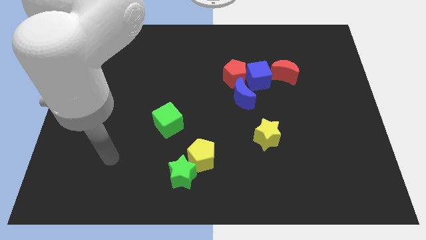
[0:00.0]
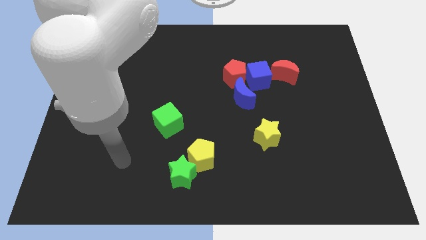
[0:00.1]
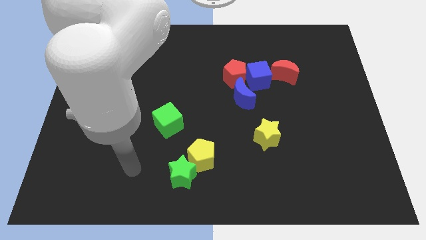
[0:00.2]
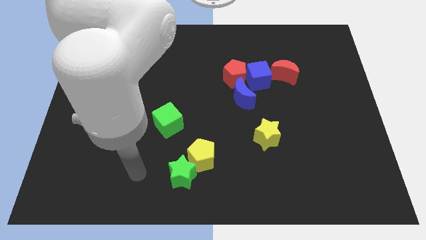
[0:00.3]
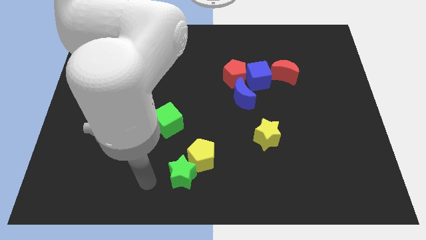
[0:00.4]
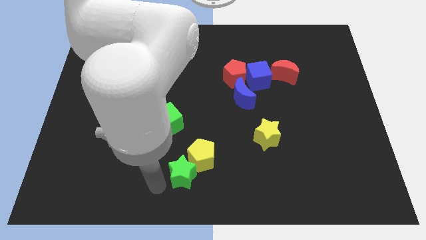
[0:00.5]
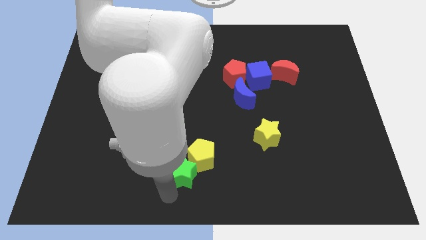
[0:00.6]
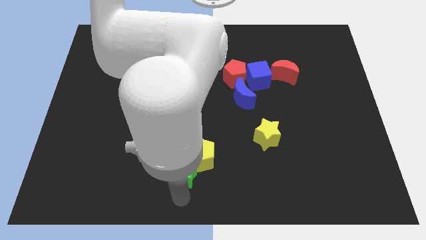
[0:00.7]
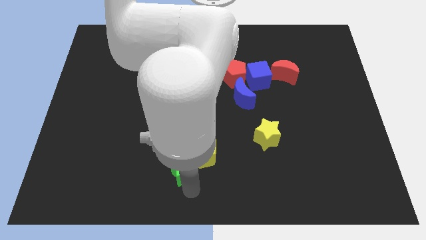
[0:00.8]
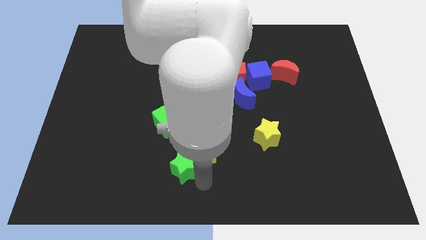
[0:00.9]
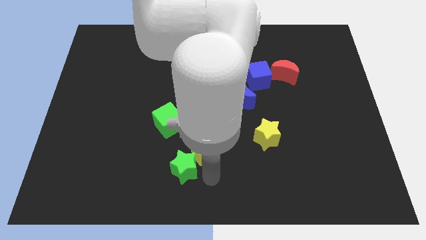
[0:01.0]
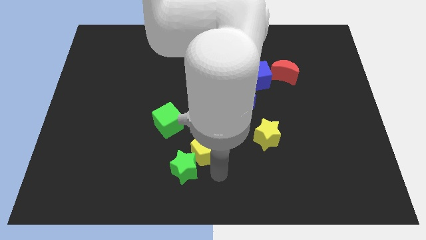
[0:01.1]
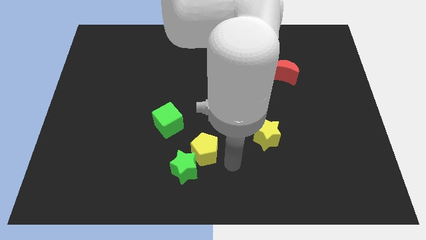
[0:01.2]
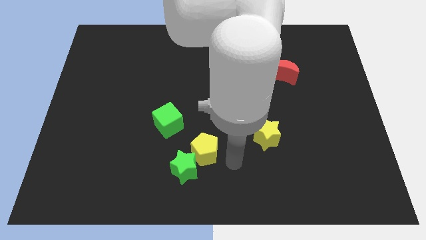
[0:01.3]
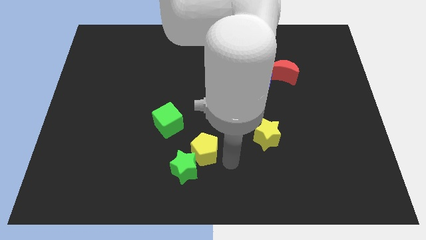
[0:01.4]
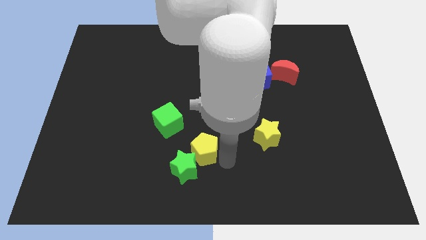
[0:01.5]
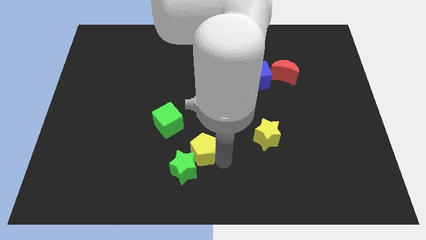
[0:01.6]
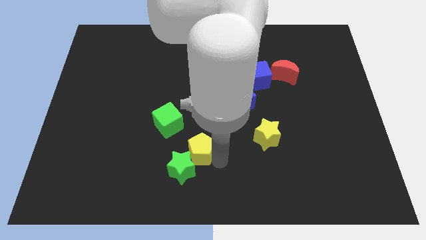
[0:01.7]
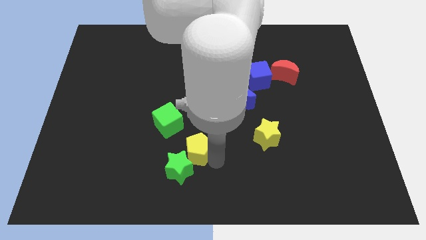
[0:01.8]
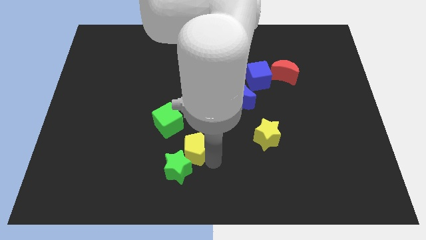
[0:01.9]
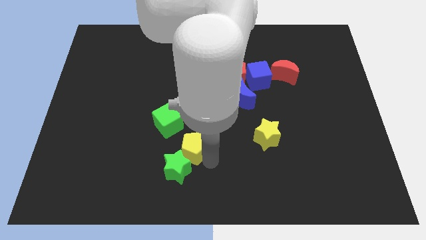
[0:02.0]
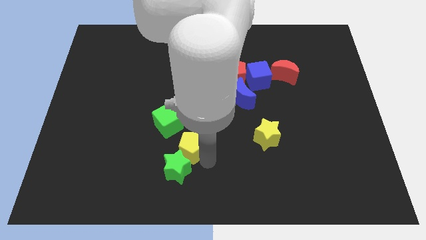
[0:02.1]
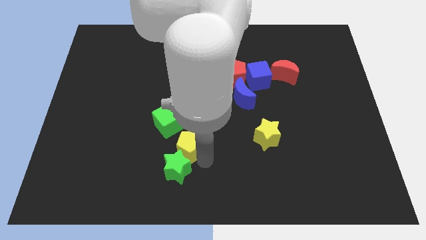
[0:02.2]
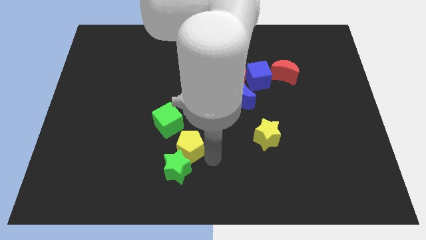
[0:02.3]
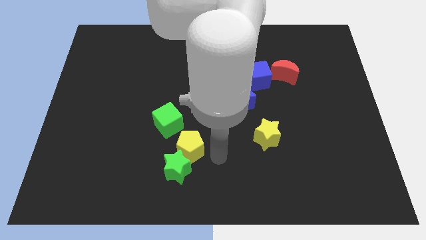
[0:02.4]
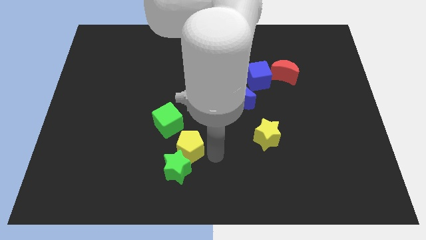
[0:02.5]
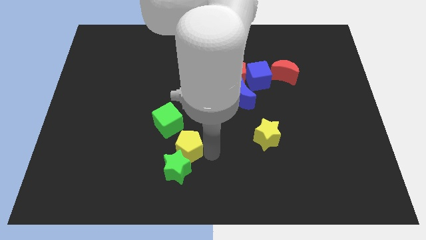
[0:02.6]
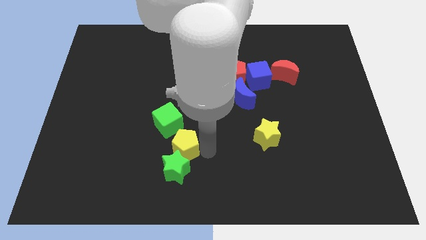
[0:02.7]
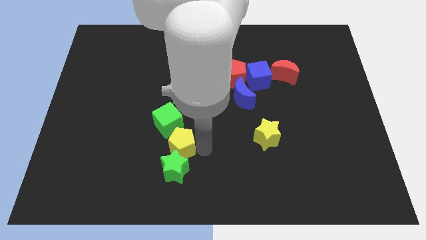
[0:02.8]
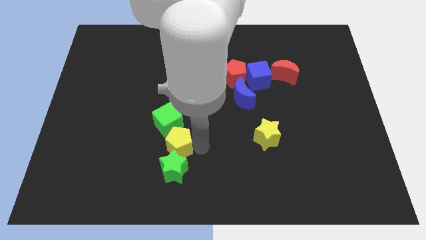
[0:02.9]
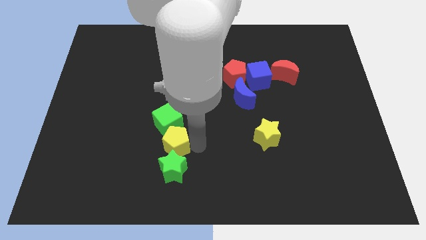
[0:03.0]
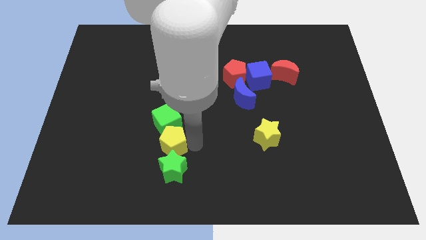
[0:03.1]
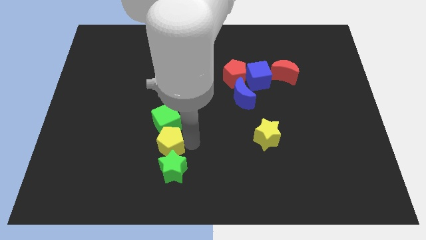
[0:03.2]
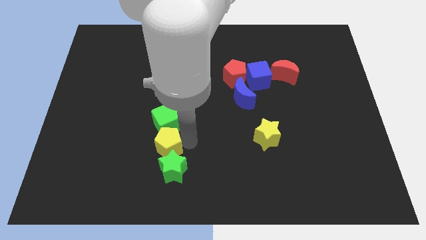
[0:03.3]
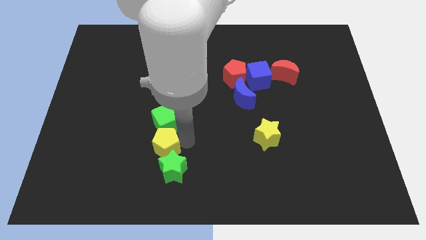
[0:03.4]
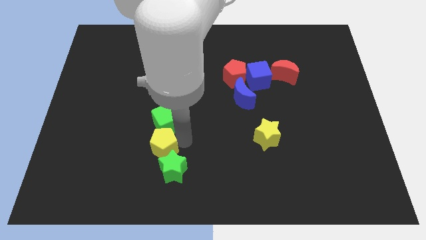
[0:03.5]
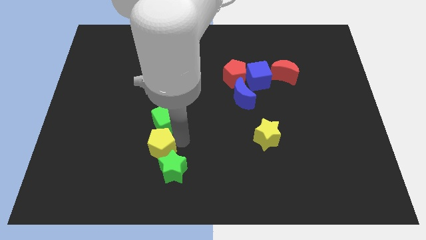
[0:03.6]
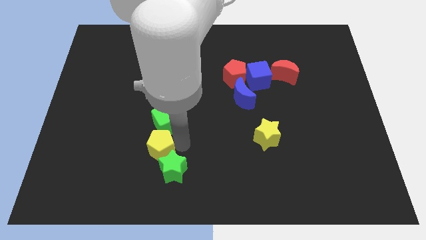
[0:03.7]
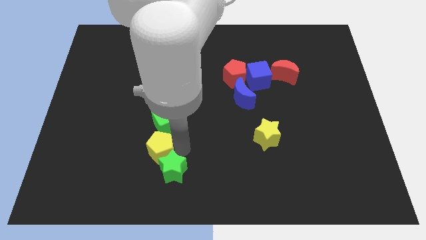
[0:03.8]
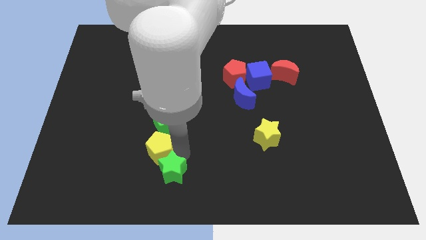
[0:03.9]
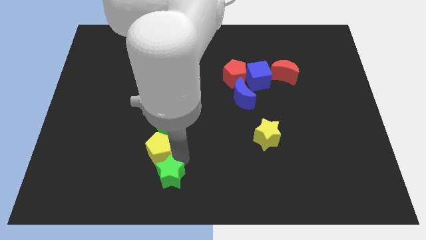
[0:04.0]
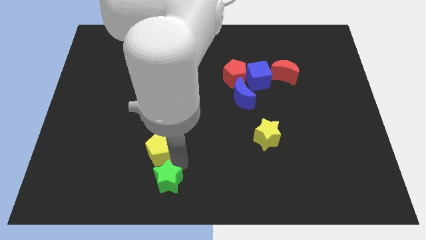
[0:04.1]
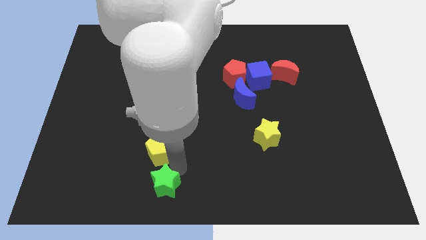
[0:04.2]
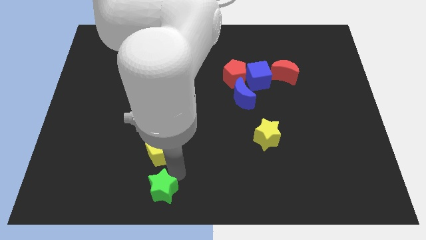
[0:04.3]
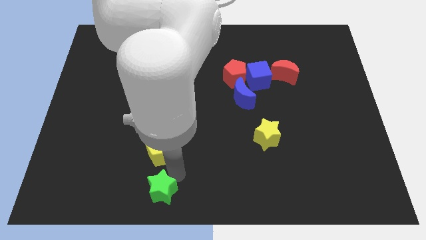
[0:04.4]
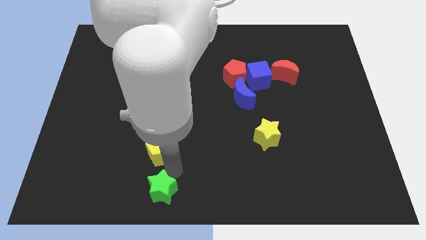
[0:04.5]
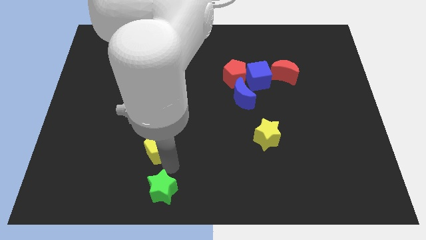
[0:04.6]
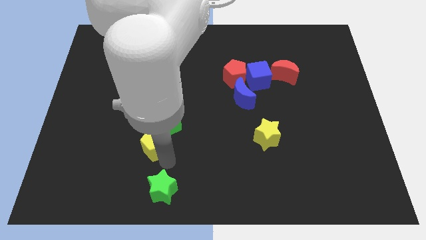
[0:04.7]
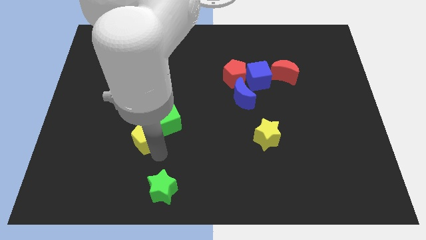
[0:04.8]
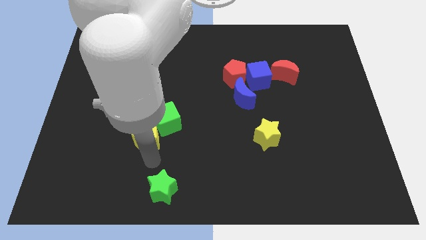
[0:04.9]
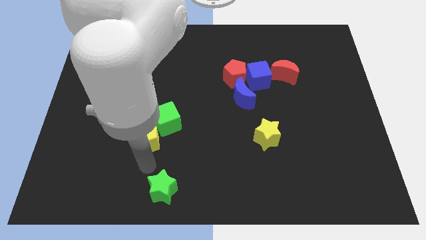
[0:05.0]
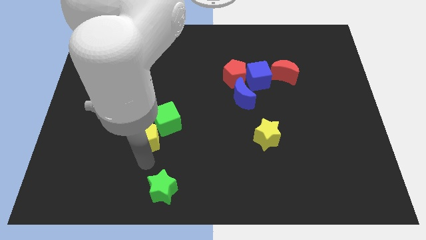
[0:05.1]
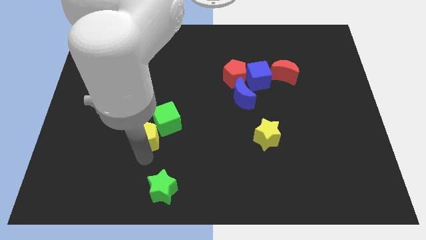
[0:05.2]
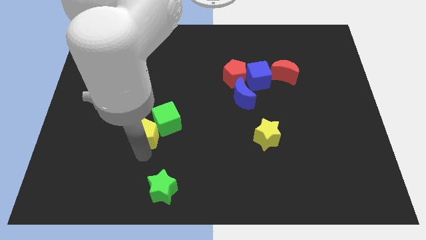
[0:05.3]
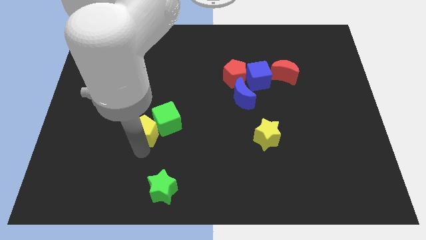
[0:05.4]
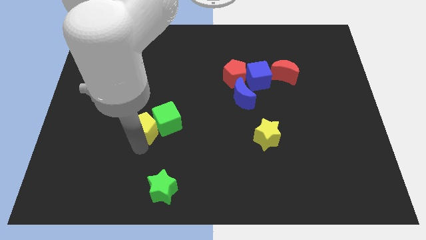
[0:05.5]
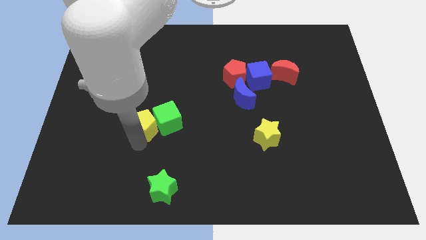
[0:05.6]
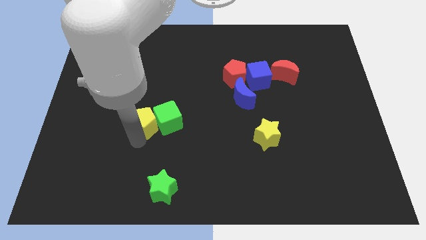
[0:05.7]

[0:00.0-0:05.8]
push the yellow pentagon to the top left of the green cube

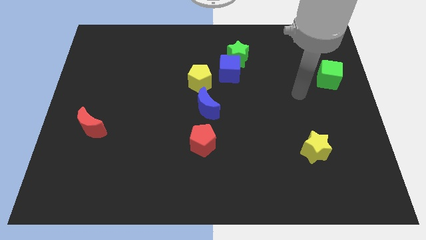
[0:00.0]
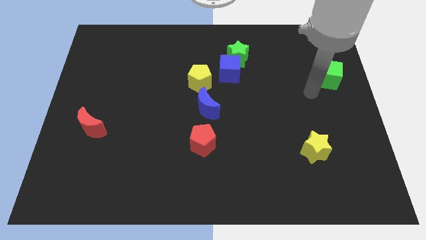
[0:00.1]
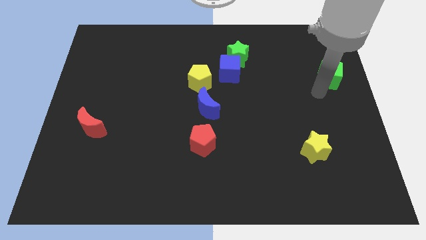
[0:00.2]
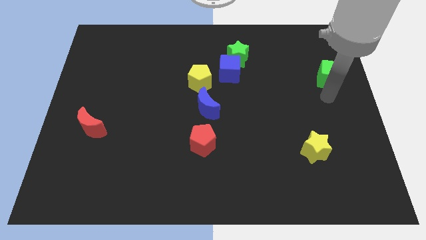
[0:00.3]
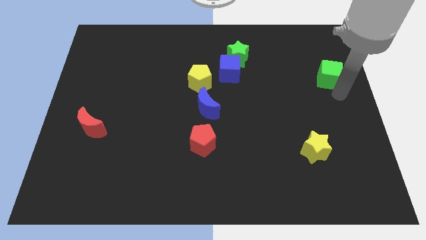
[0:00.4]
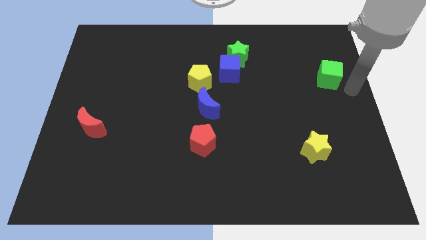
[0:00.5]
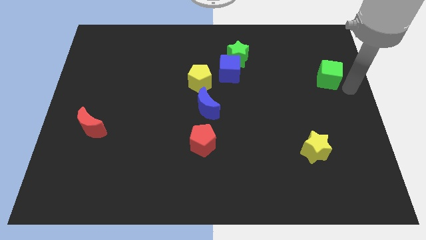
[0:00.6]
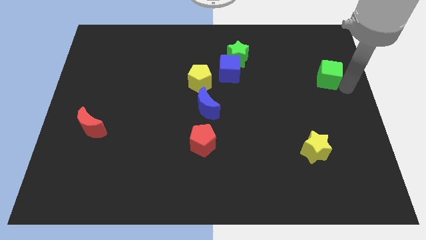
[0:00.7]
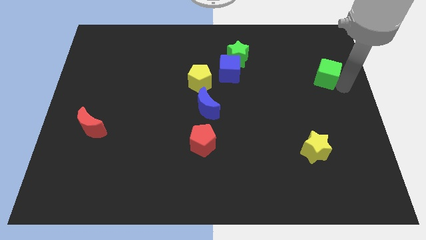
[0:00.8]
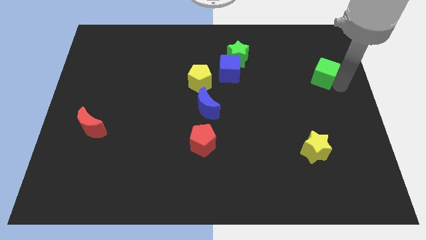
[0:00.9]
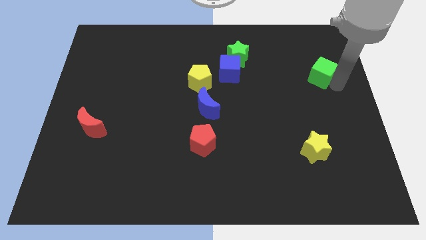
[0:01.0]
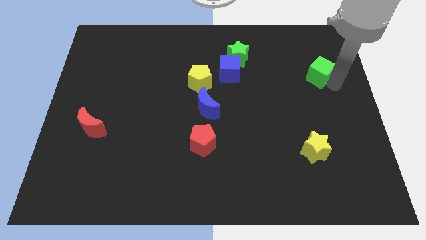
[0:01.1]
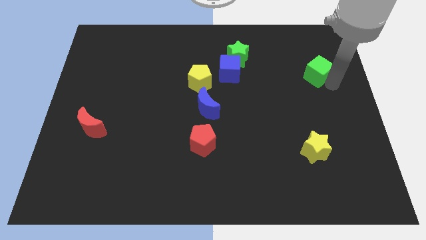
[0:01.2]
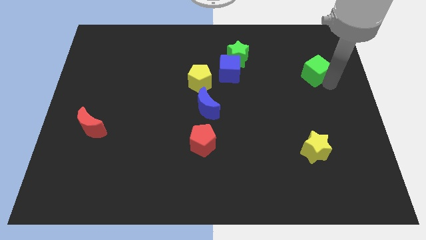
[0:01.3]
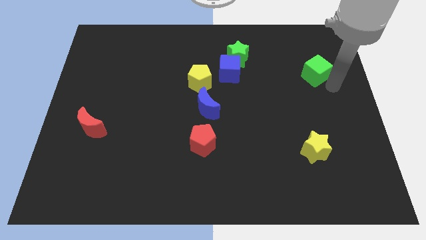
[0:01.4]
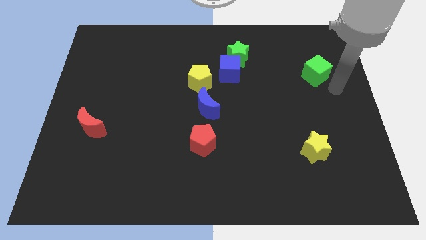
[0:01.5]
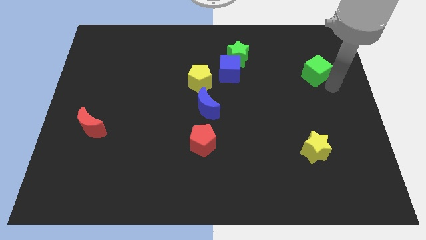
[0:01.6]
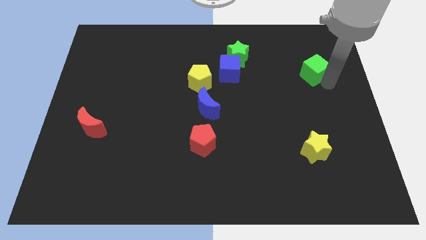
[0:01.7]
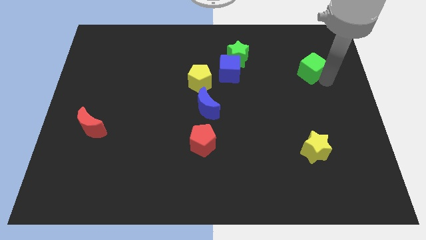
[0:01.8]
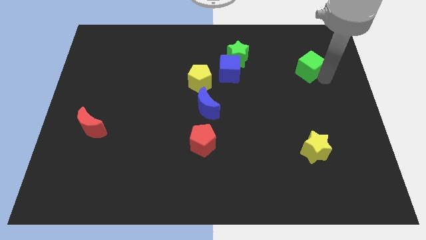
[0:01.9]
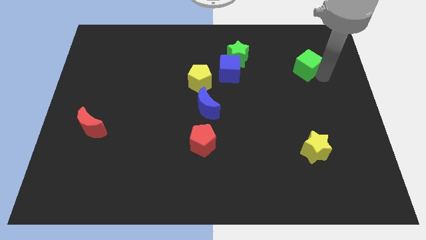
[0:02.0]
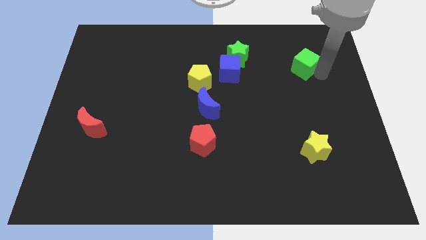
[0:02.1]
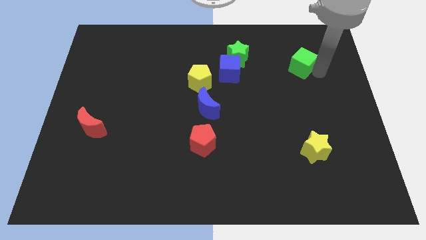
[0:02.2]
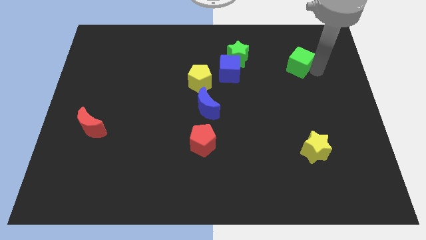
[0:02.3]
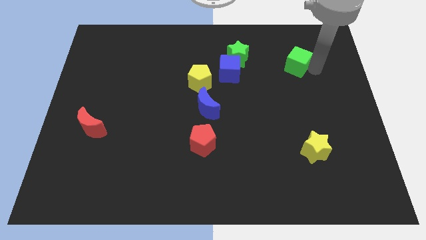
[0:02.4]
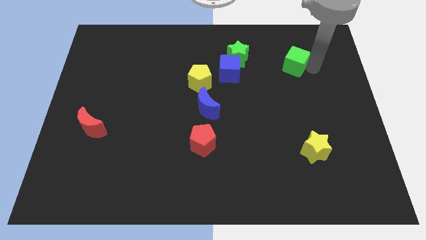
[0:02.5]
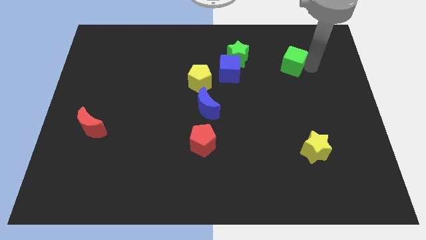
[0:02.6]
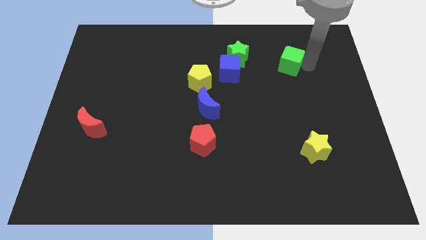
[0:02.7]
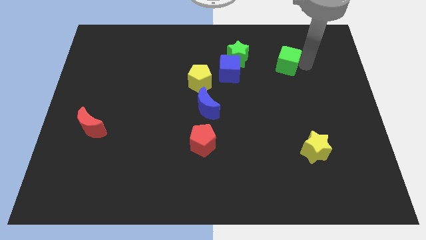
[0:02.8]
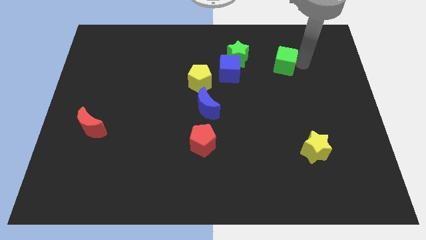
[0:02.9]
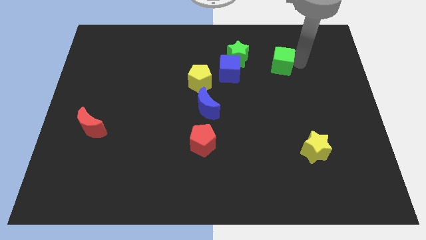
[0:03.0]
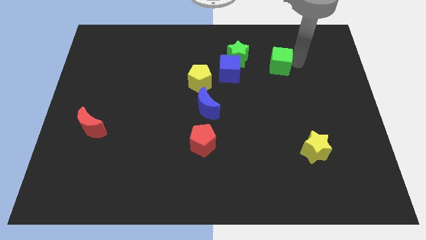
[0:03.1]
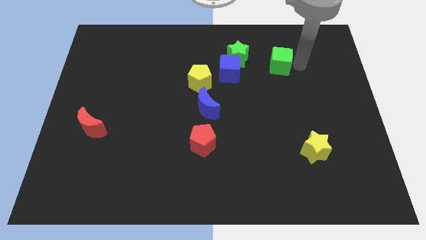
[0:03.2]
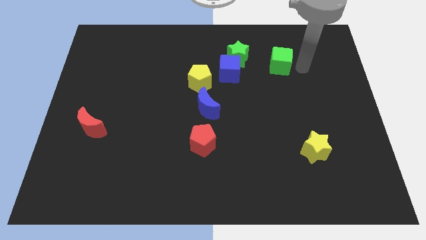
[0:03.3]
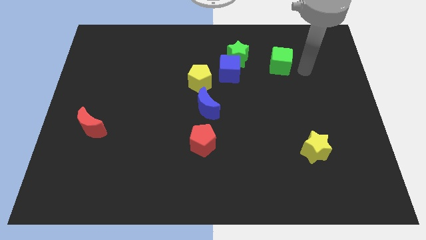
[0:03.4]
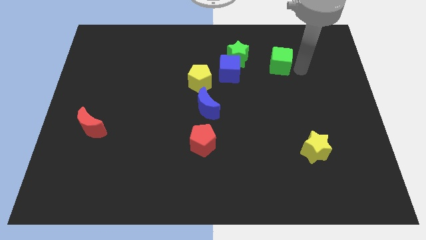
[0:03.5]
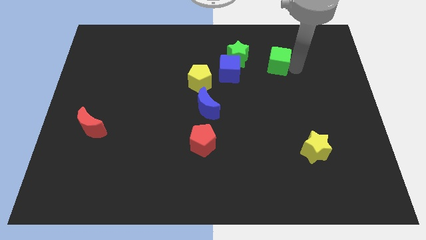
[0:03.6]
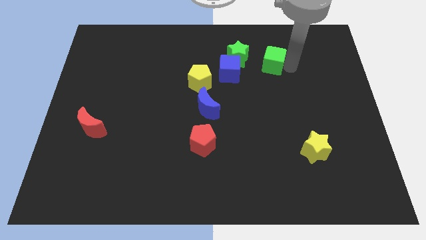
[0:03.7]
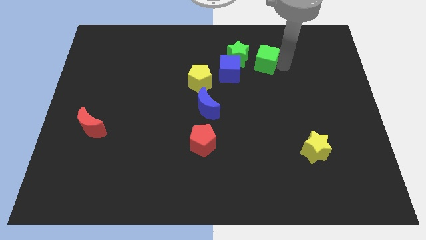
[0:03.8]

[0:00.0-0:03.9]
put the green cube diagonally up and to the right of the blue cube
